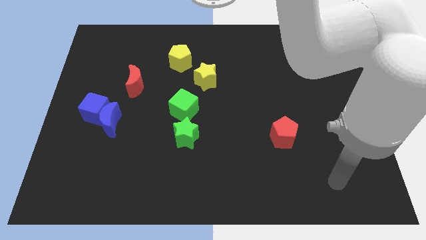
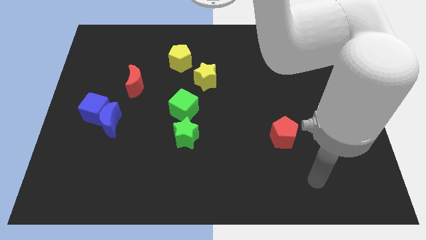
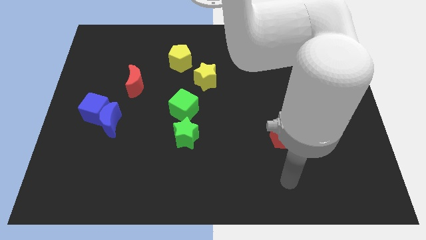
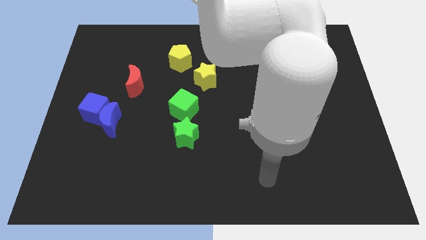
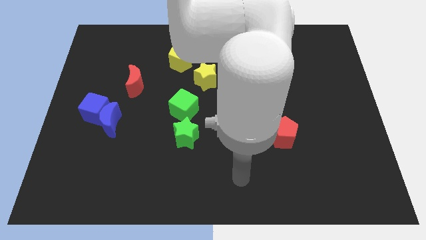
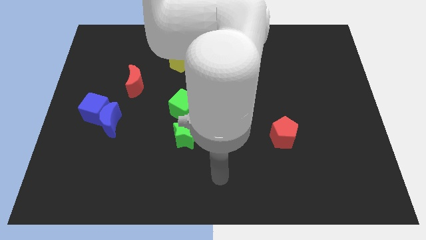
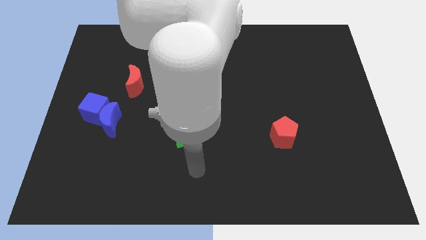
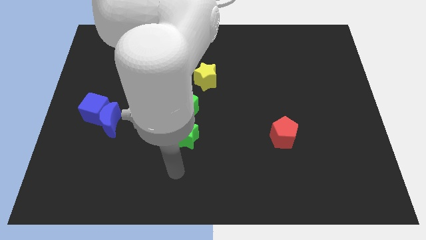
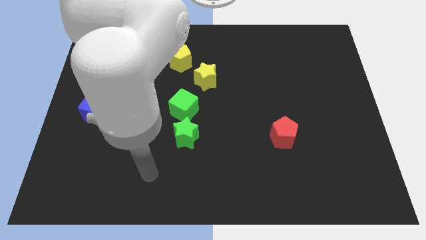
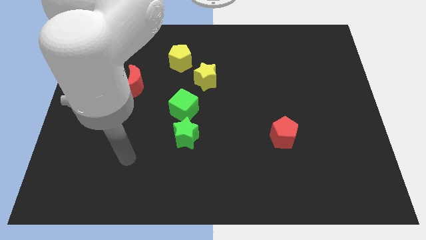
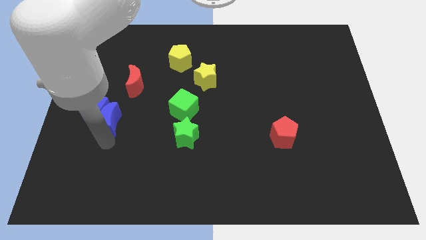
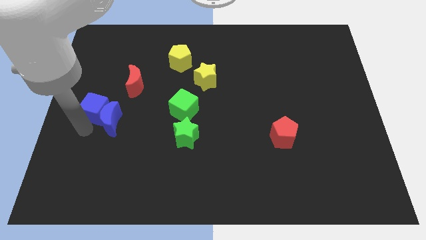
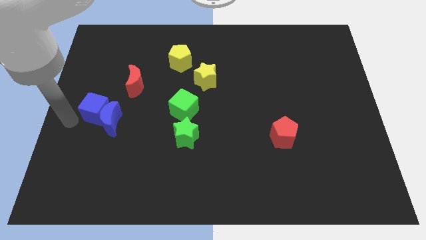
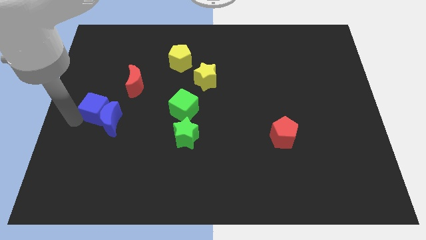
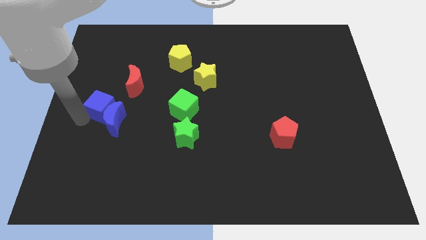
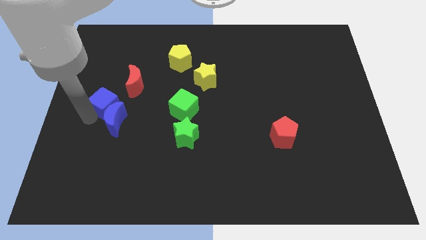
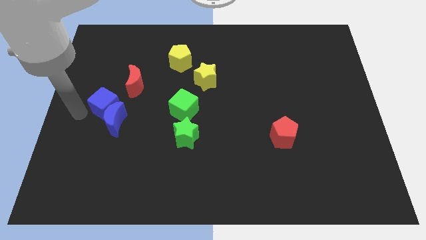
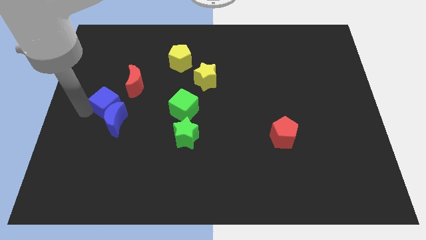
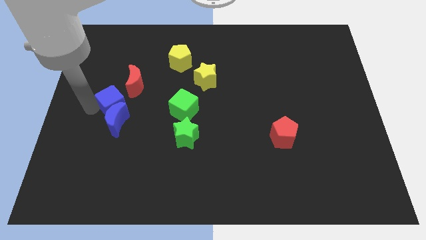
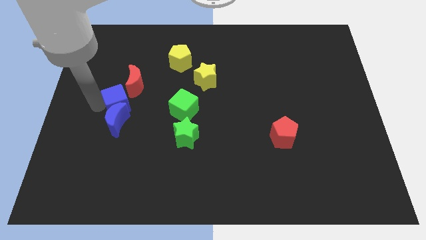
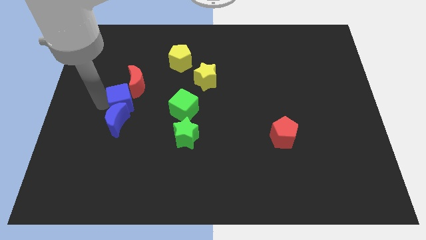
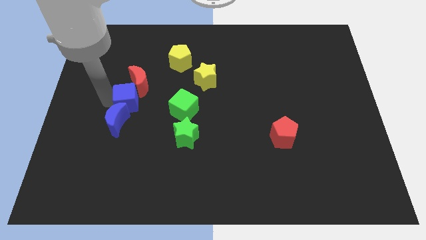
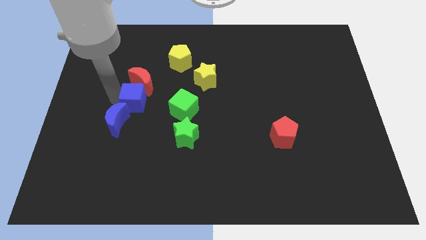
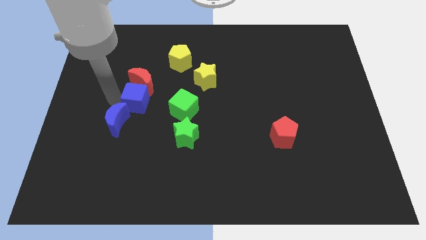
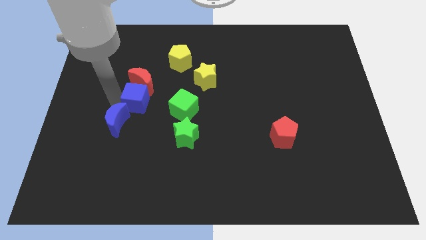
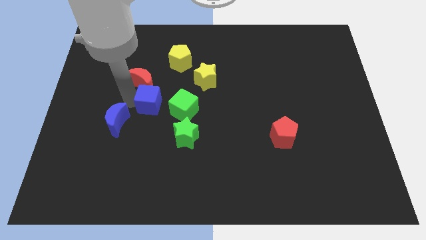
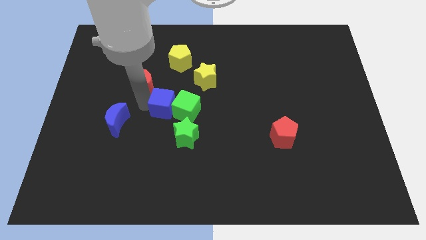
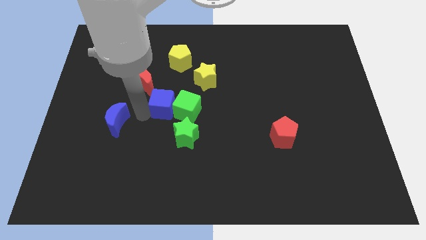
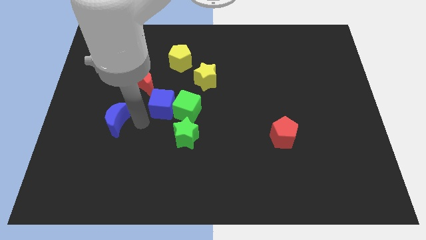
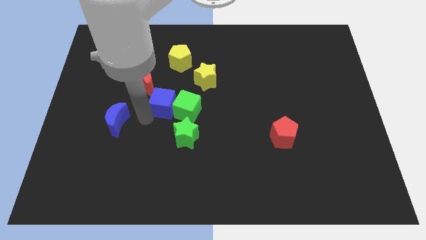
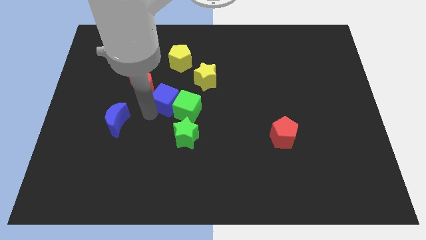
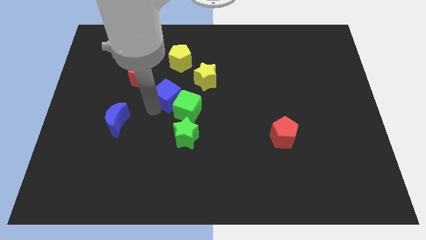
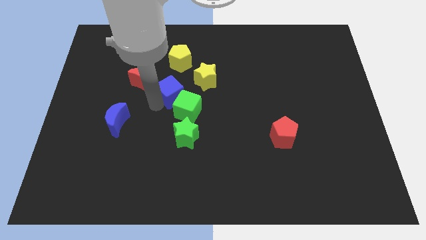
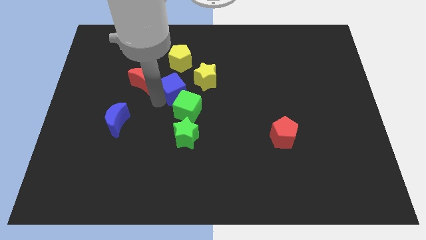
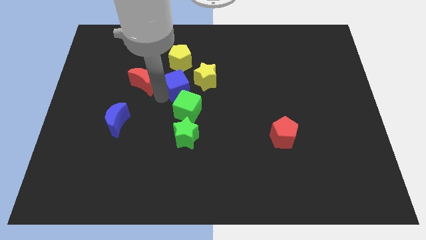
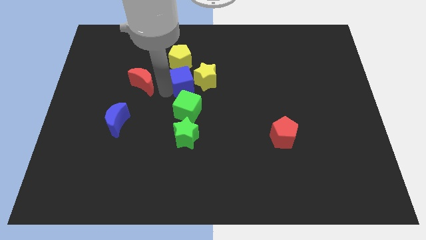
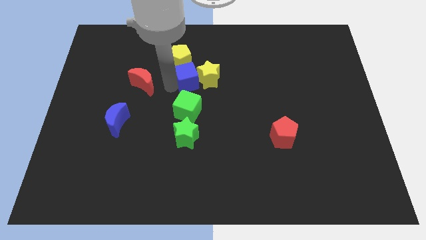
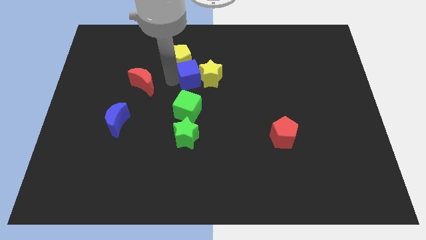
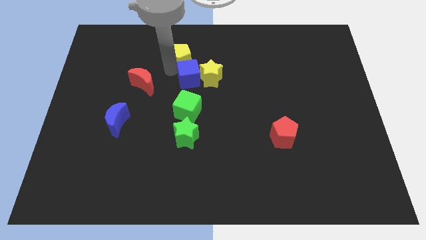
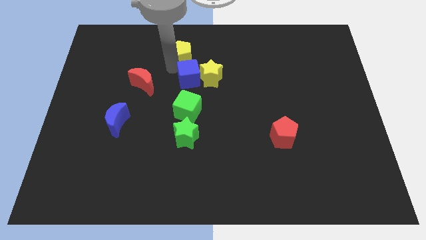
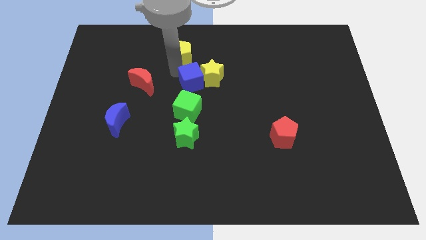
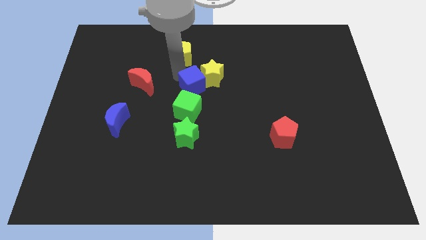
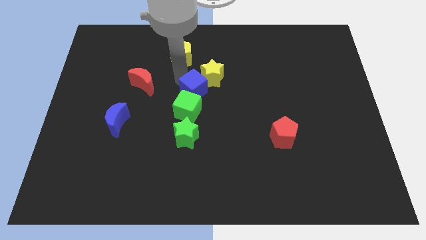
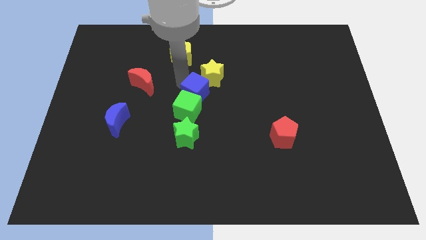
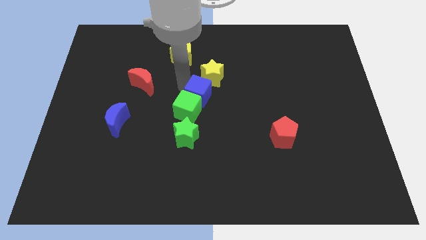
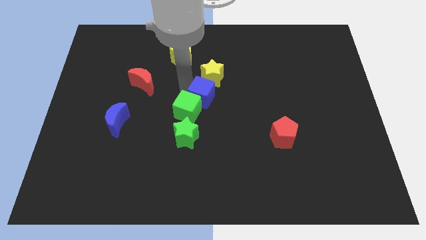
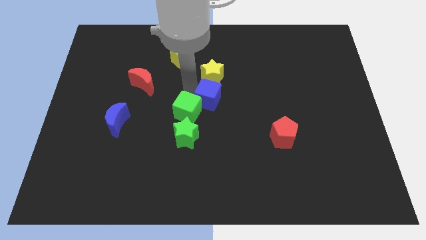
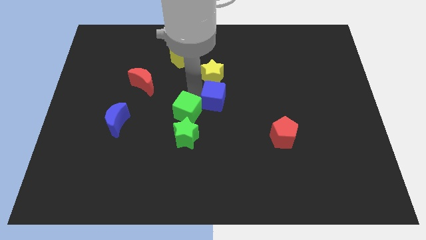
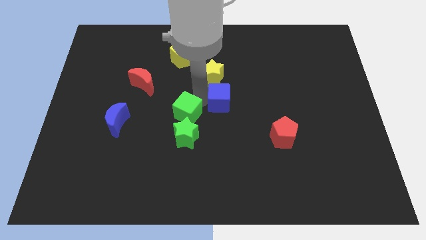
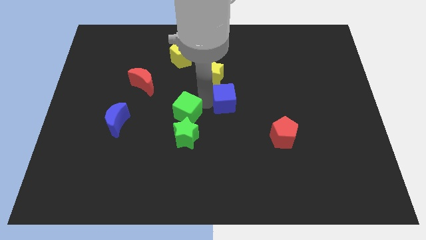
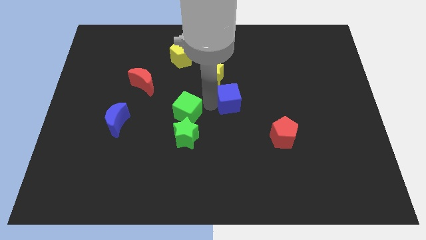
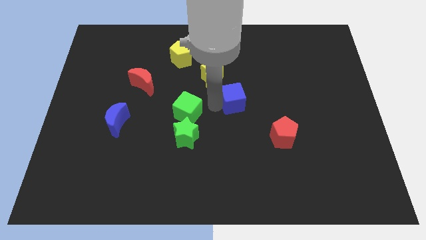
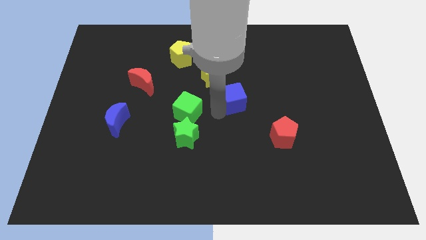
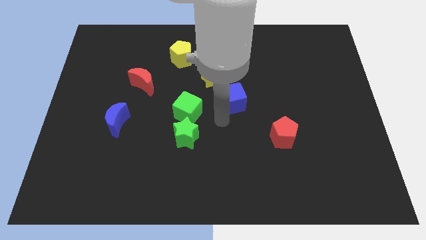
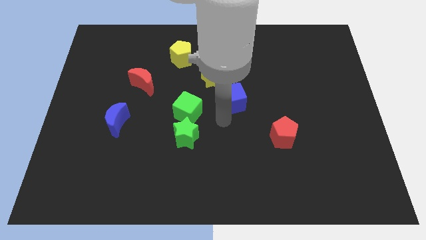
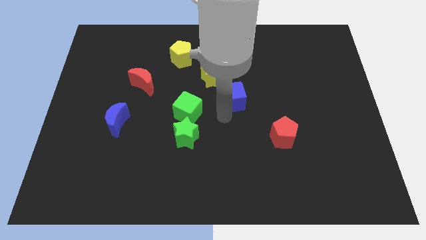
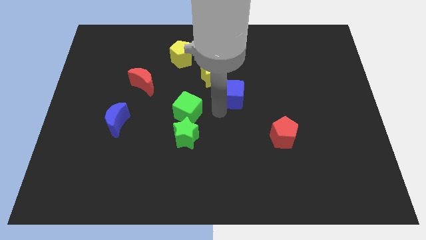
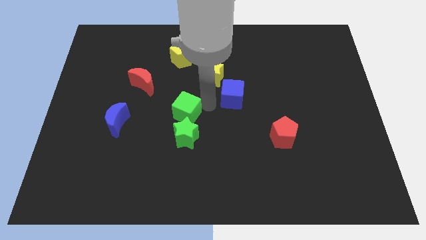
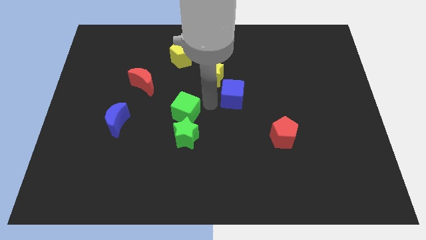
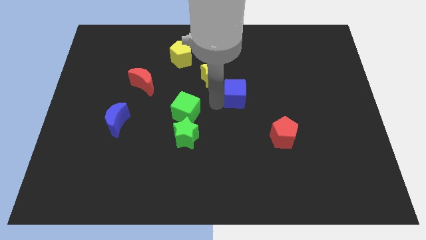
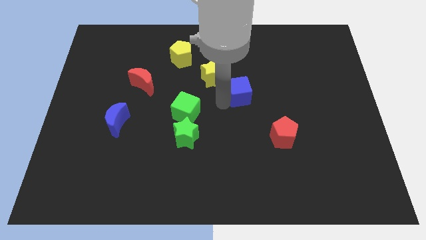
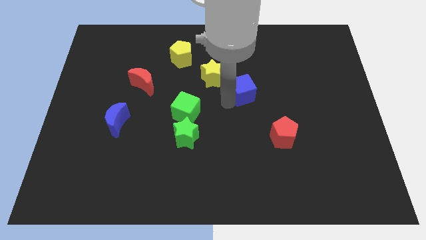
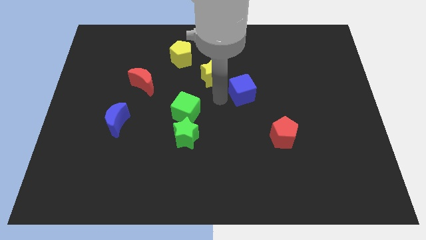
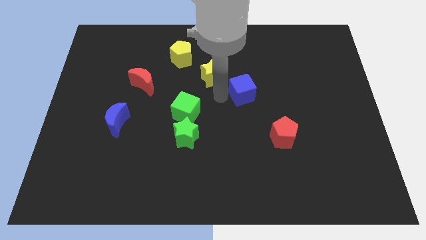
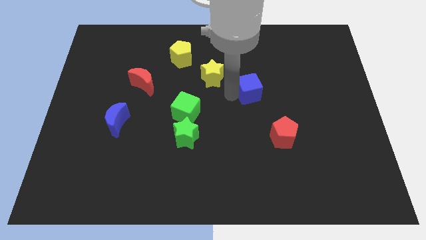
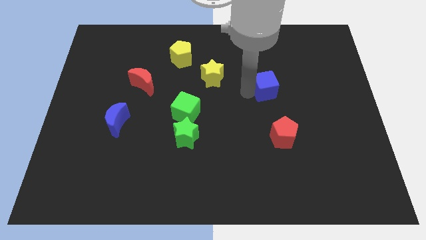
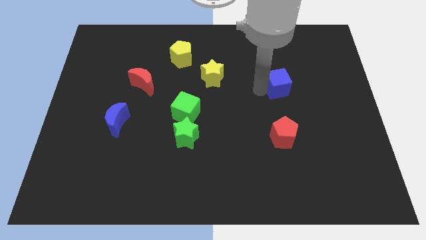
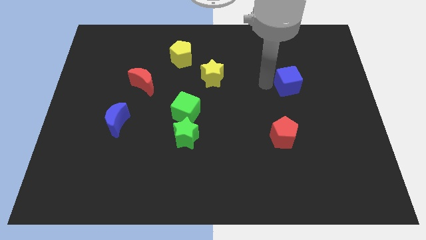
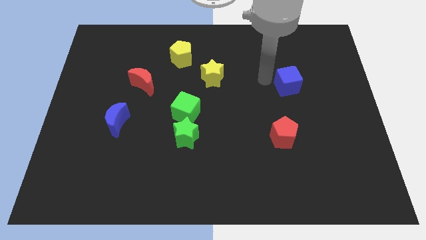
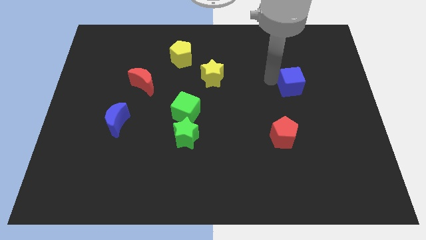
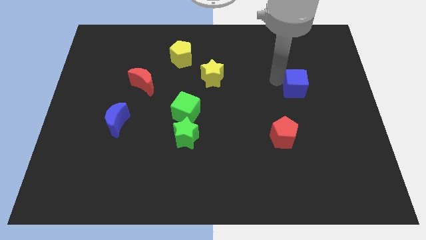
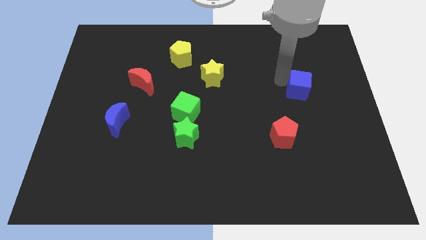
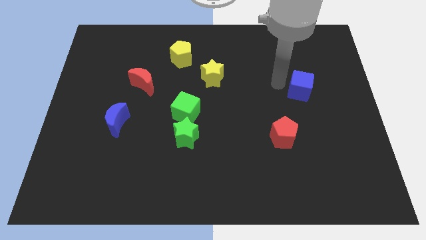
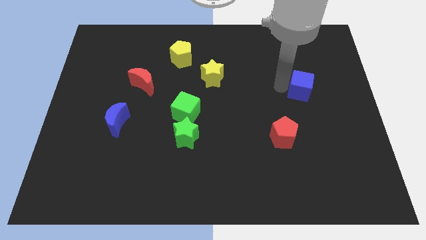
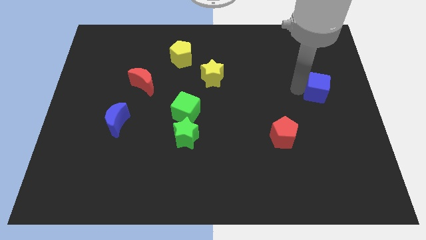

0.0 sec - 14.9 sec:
push the blue cube to the right side of the board
